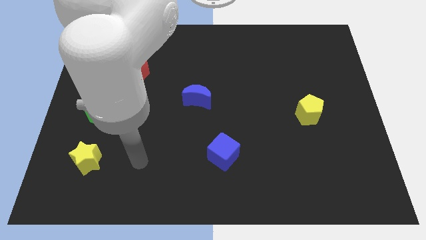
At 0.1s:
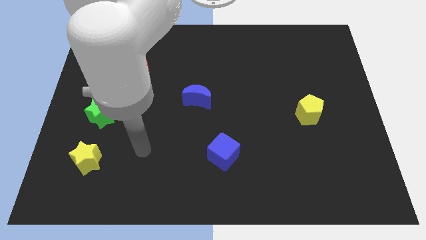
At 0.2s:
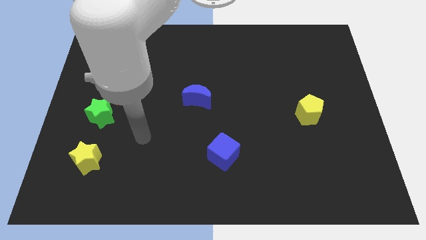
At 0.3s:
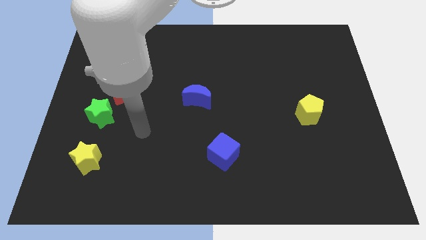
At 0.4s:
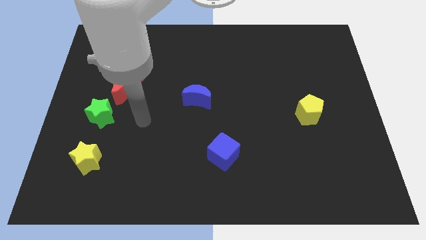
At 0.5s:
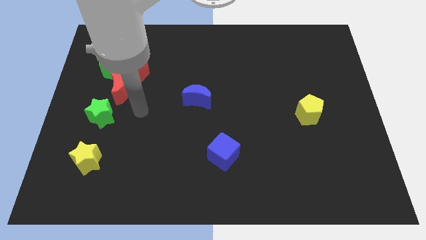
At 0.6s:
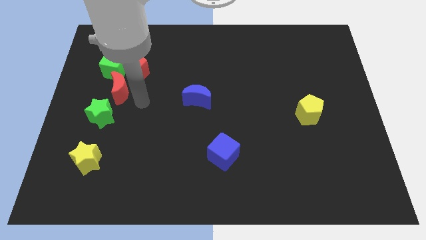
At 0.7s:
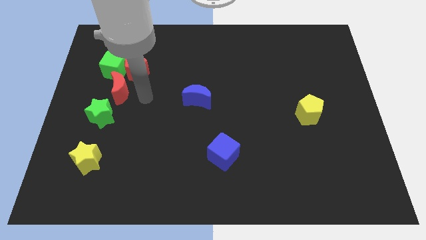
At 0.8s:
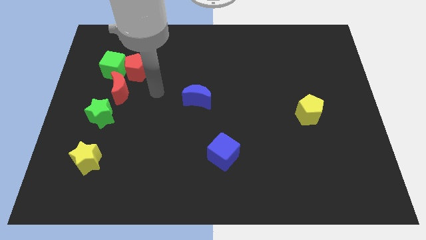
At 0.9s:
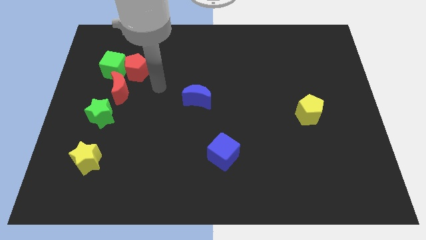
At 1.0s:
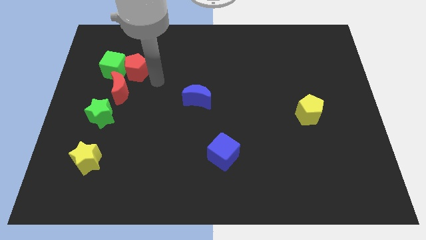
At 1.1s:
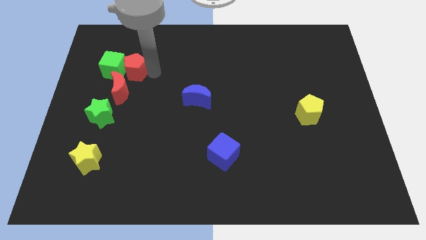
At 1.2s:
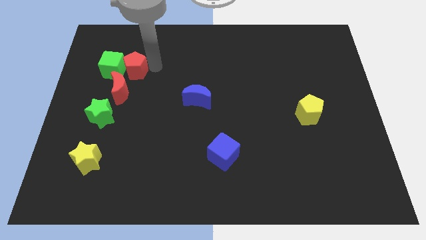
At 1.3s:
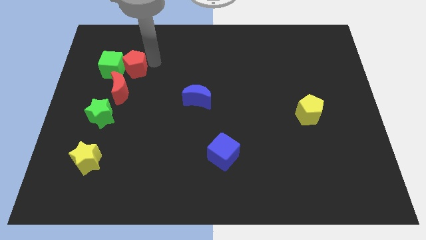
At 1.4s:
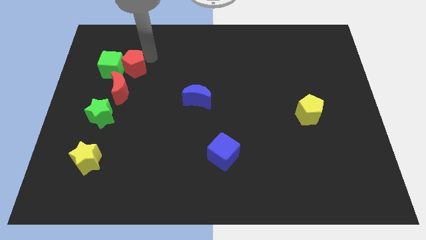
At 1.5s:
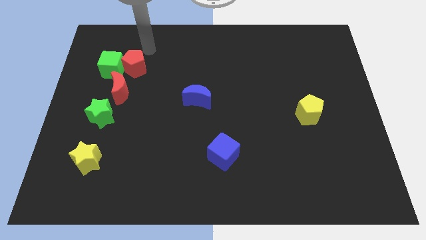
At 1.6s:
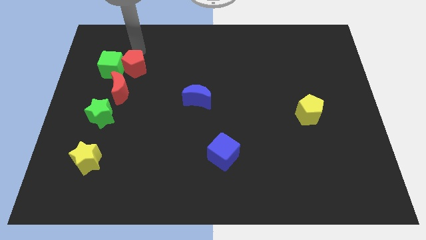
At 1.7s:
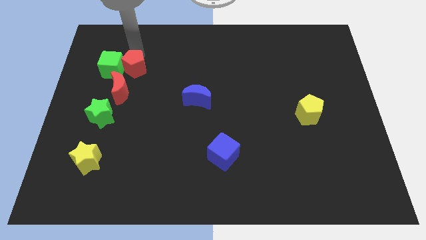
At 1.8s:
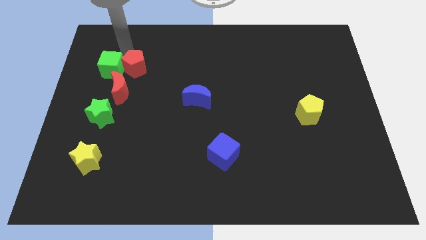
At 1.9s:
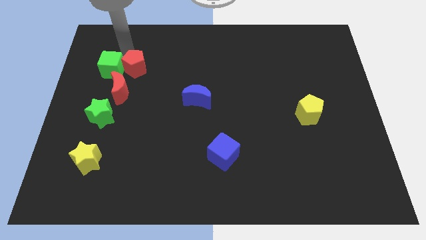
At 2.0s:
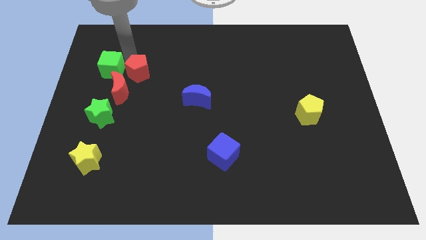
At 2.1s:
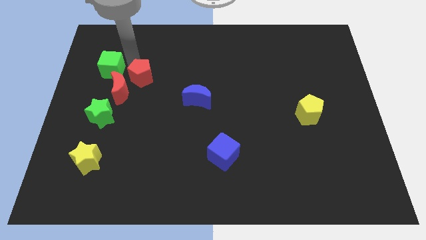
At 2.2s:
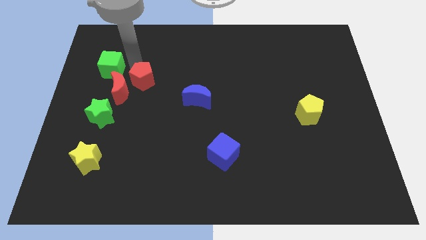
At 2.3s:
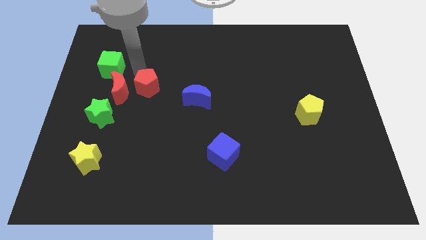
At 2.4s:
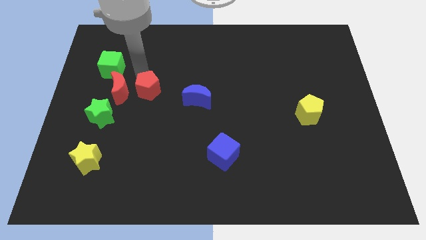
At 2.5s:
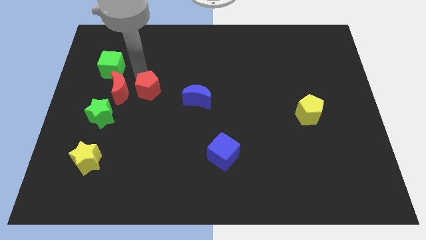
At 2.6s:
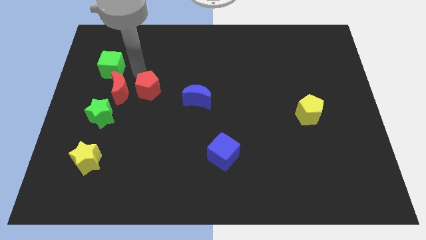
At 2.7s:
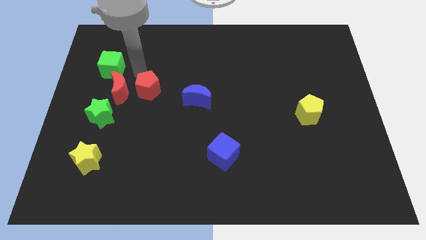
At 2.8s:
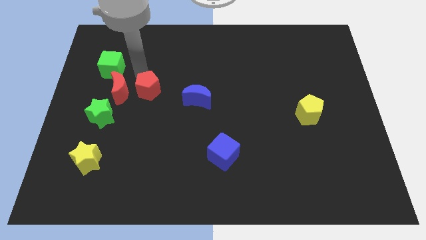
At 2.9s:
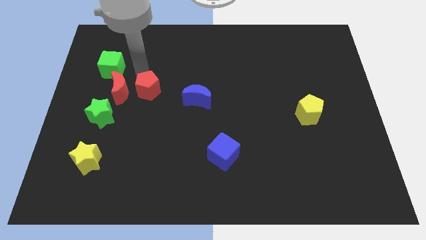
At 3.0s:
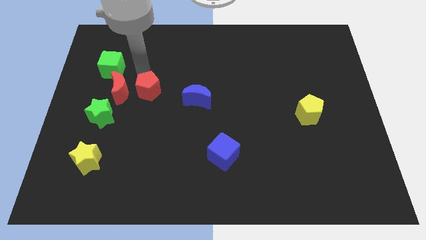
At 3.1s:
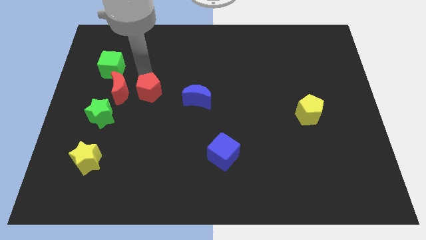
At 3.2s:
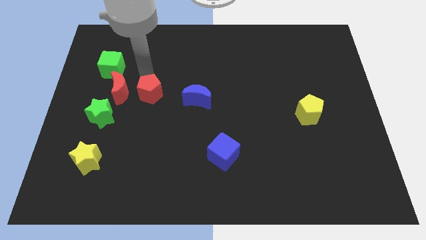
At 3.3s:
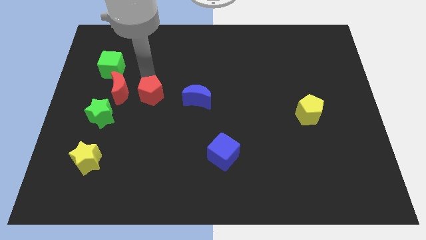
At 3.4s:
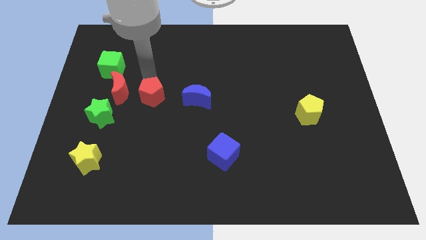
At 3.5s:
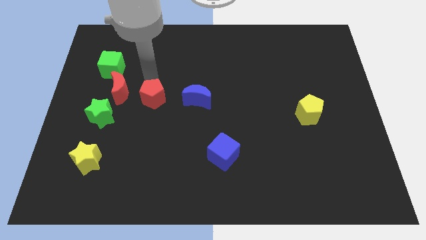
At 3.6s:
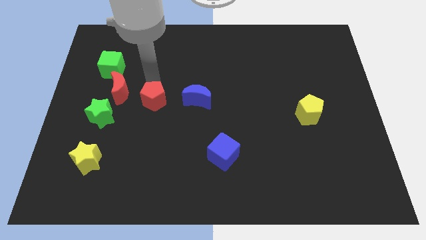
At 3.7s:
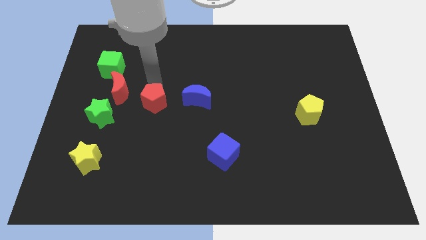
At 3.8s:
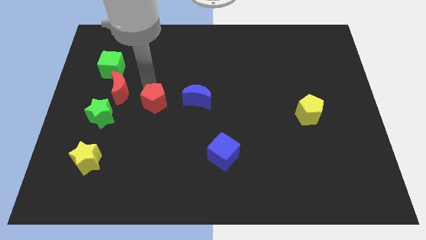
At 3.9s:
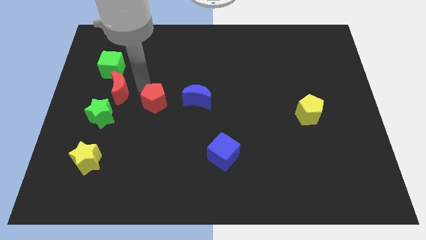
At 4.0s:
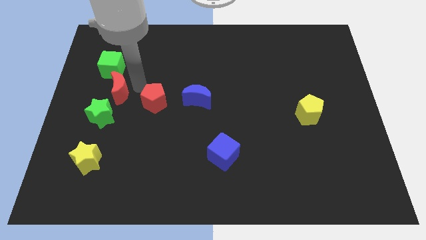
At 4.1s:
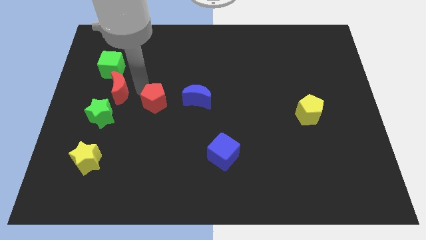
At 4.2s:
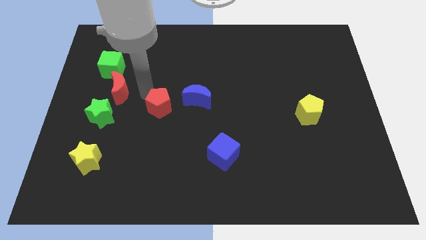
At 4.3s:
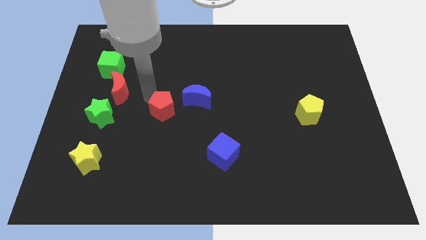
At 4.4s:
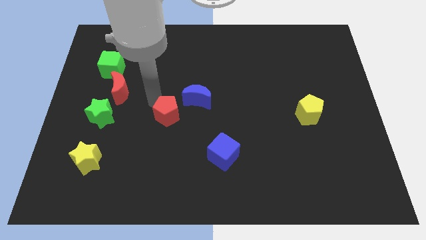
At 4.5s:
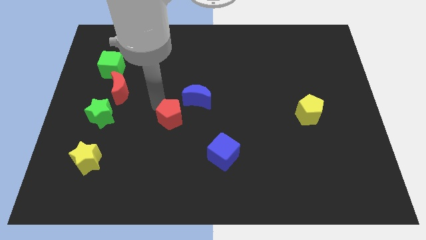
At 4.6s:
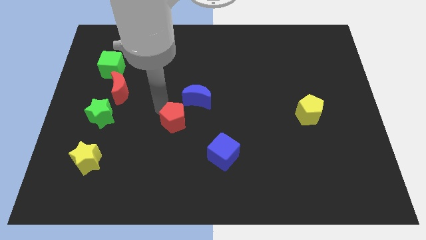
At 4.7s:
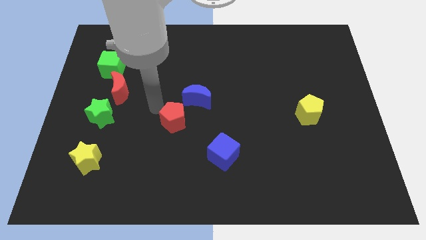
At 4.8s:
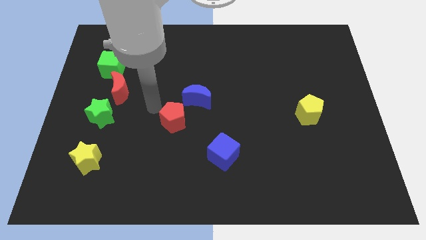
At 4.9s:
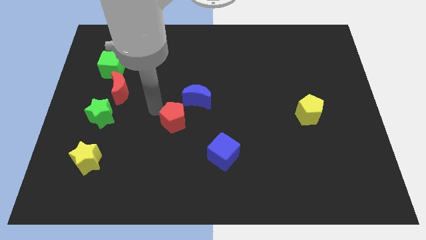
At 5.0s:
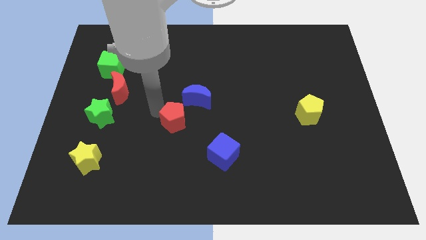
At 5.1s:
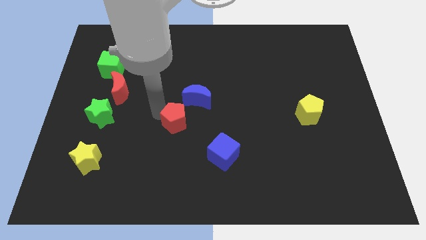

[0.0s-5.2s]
move the red pentagon to the bottom of the blue moon

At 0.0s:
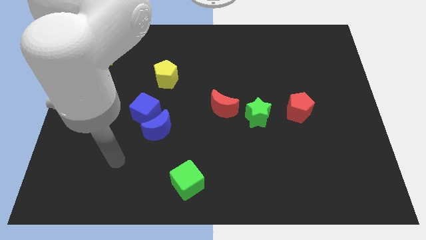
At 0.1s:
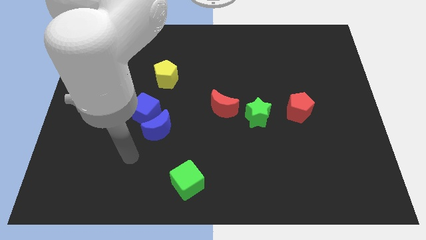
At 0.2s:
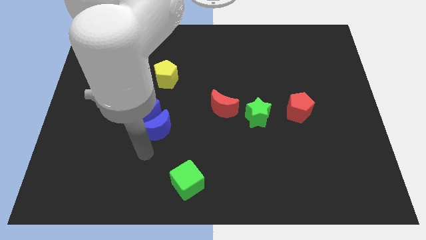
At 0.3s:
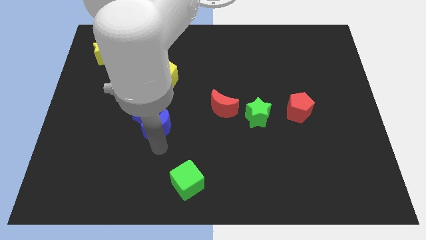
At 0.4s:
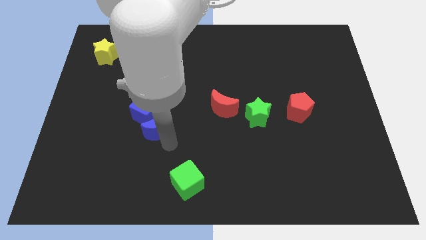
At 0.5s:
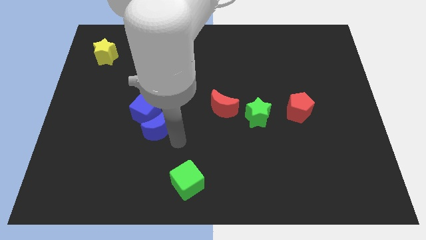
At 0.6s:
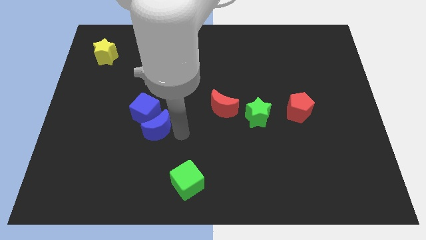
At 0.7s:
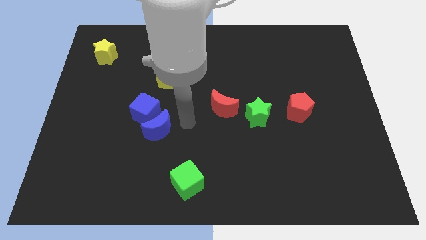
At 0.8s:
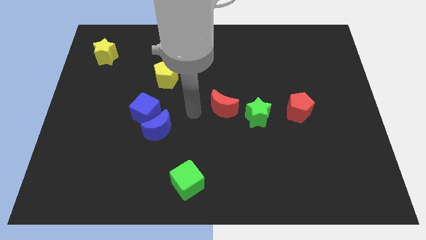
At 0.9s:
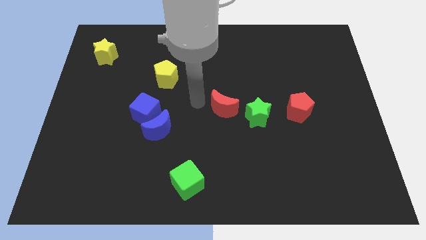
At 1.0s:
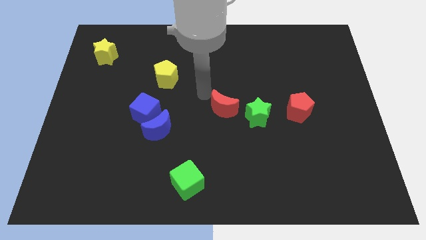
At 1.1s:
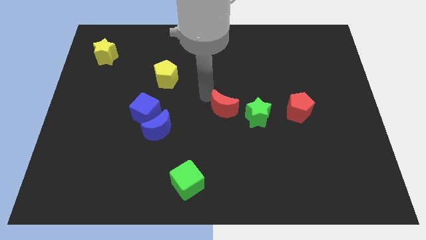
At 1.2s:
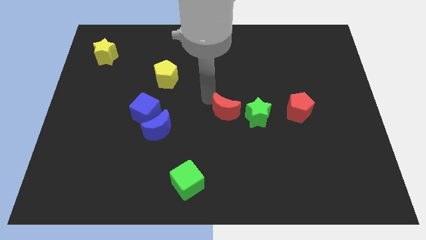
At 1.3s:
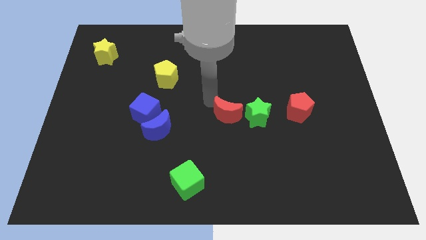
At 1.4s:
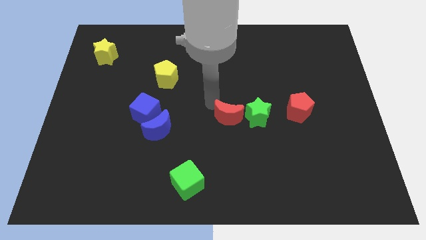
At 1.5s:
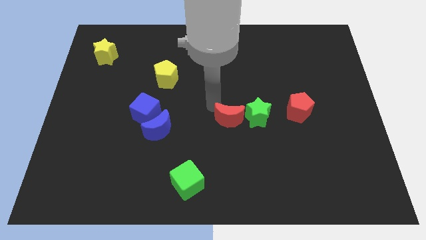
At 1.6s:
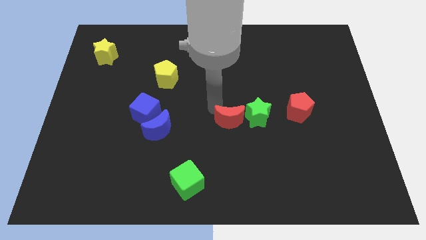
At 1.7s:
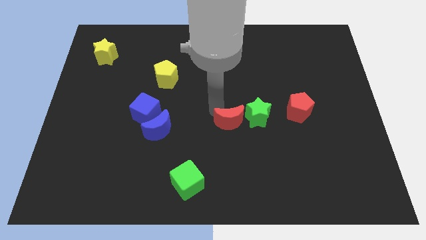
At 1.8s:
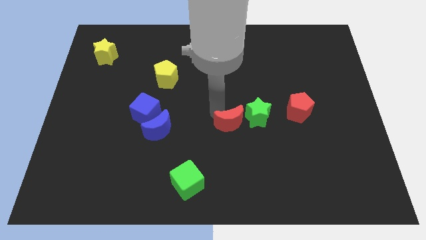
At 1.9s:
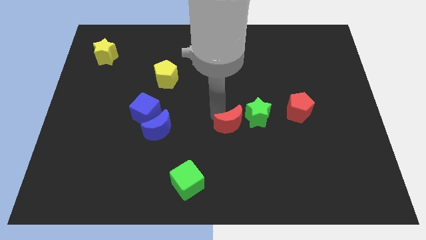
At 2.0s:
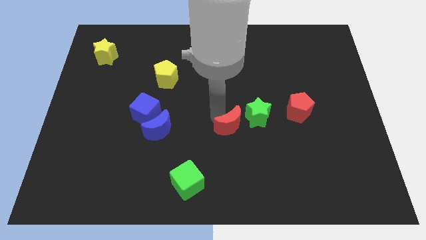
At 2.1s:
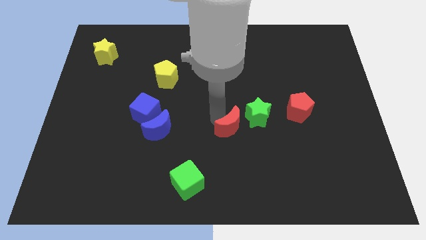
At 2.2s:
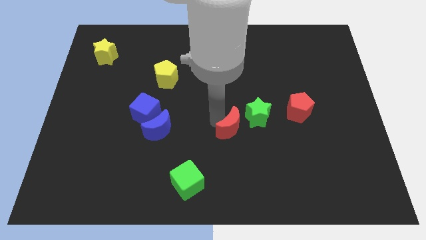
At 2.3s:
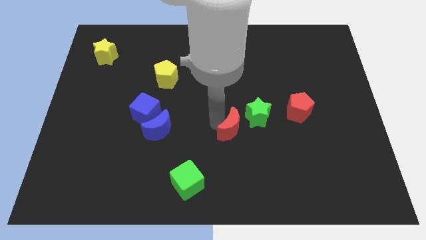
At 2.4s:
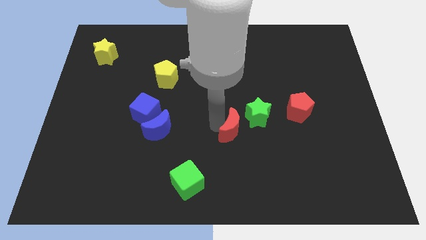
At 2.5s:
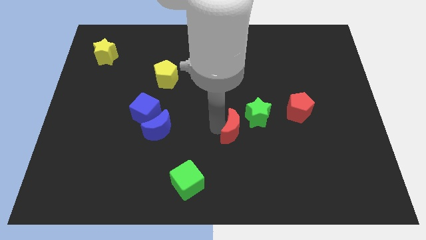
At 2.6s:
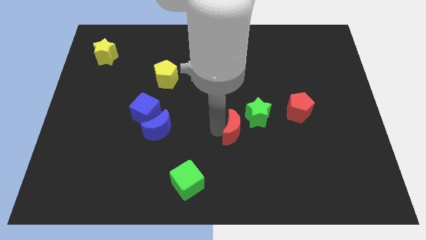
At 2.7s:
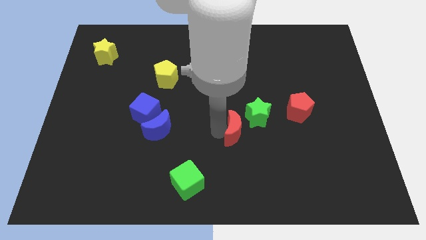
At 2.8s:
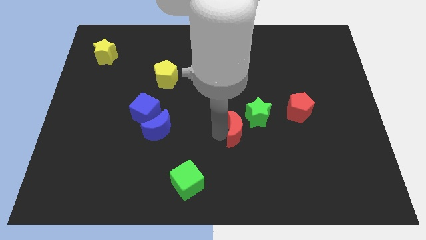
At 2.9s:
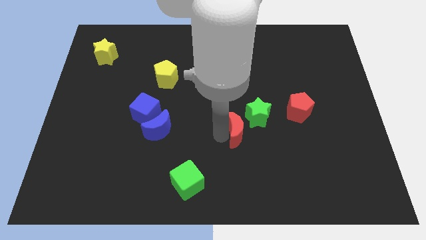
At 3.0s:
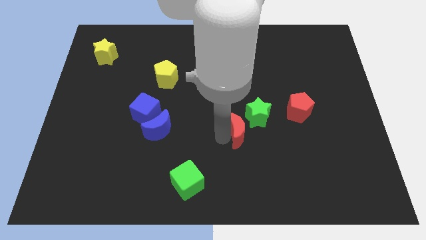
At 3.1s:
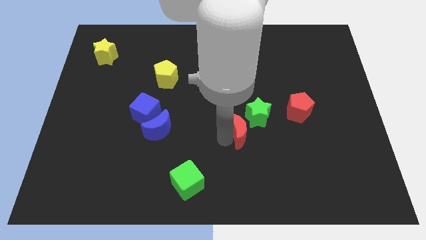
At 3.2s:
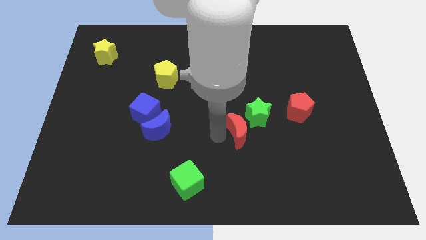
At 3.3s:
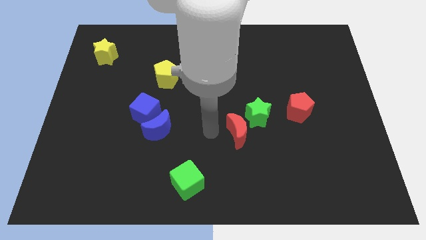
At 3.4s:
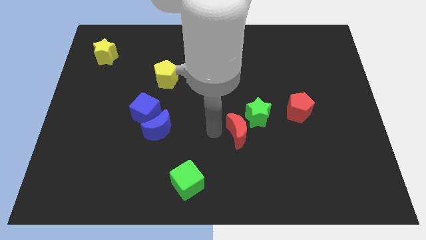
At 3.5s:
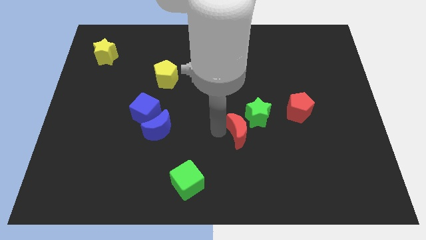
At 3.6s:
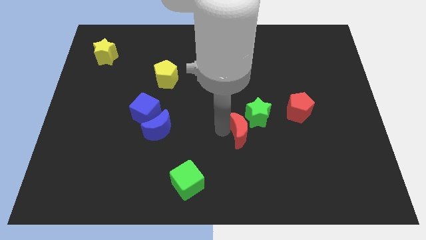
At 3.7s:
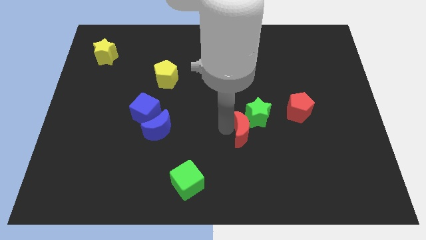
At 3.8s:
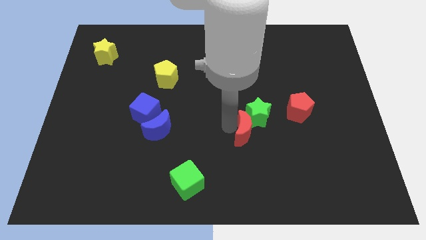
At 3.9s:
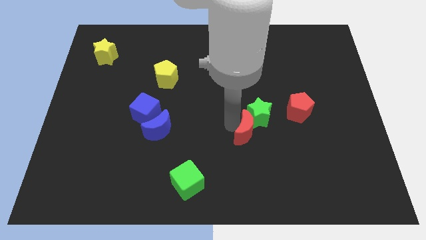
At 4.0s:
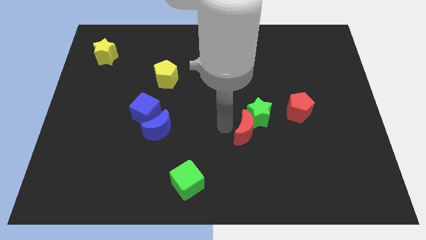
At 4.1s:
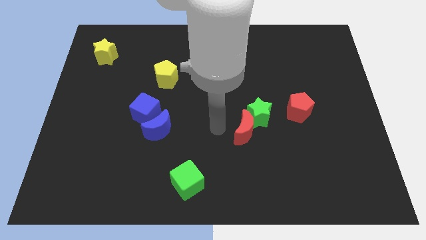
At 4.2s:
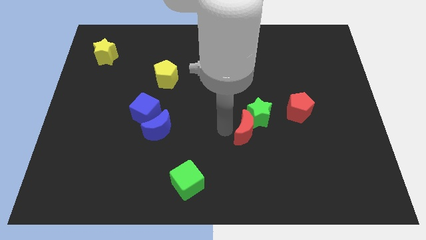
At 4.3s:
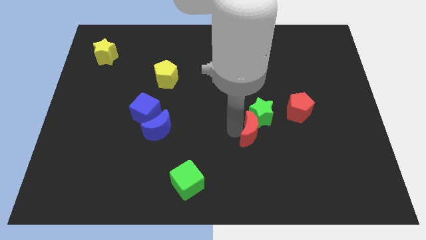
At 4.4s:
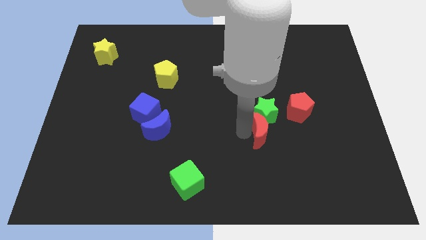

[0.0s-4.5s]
put the red moon to the bottom right of the green star
